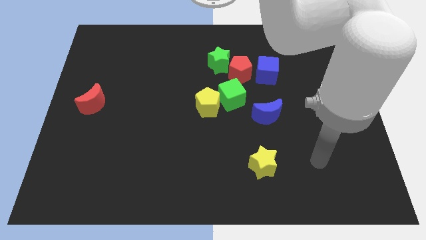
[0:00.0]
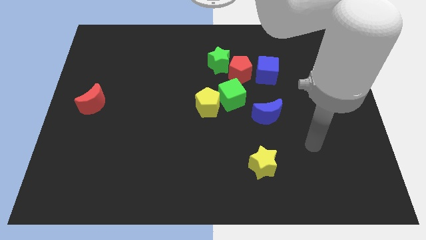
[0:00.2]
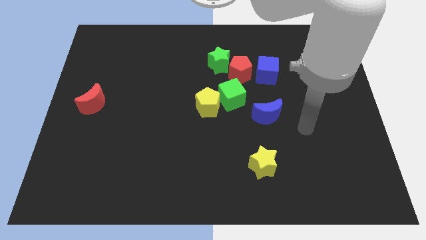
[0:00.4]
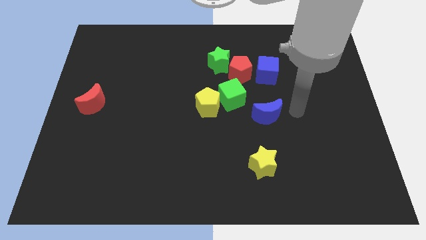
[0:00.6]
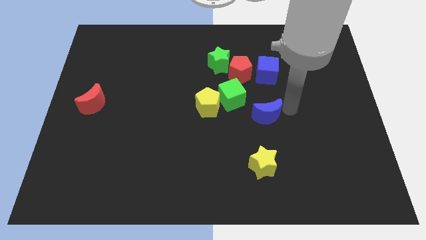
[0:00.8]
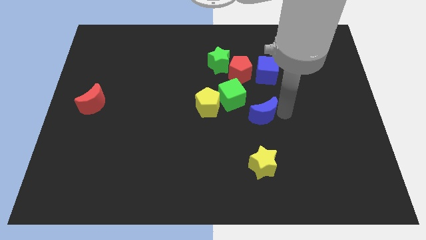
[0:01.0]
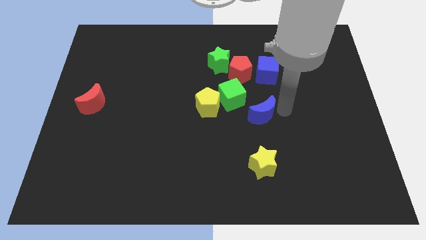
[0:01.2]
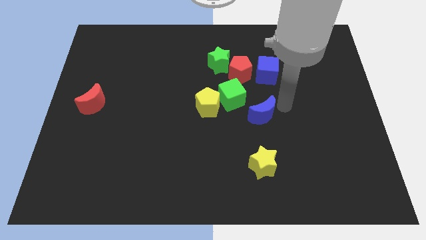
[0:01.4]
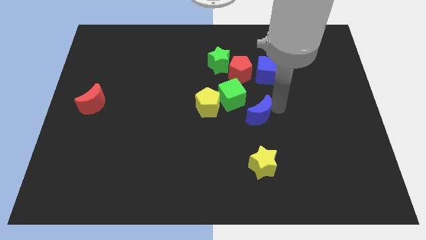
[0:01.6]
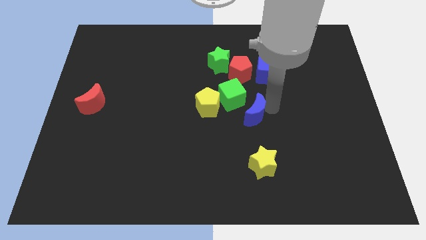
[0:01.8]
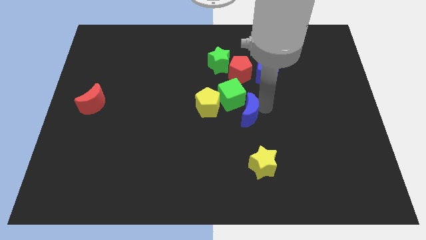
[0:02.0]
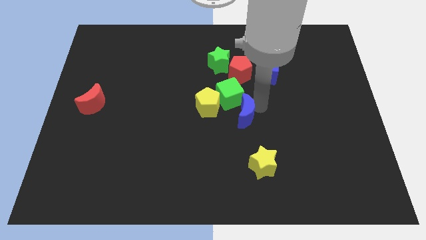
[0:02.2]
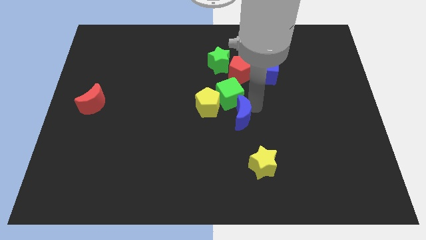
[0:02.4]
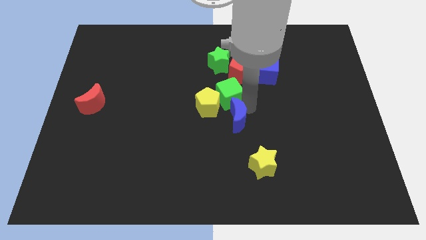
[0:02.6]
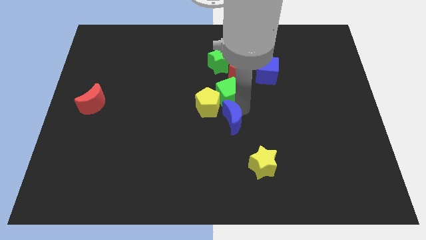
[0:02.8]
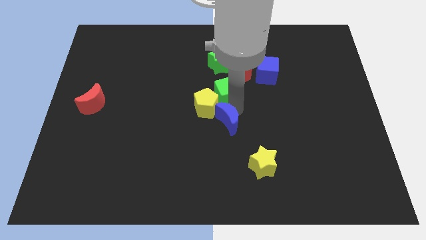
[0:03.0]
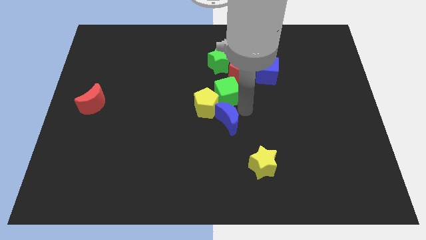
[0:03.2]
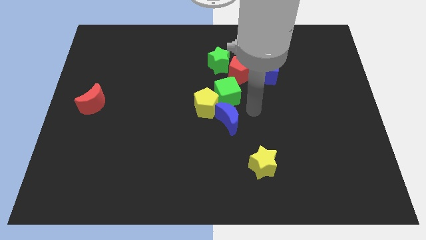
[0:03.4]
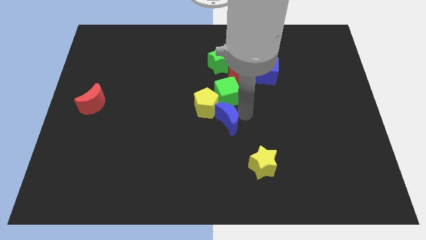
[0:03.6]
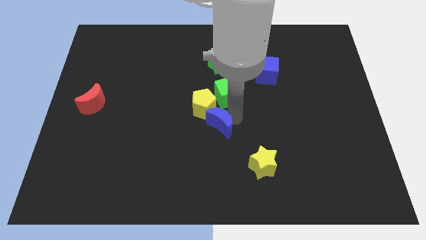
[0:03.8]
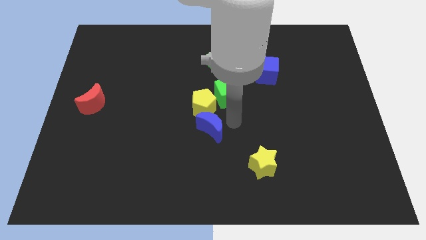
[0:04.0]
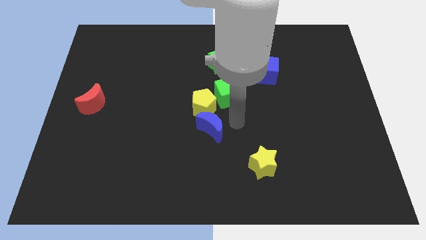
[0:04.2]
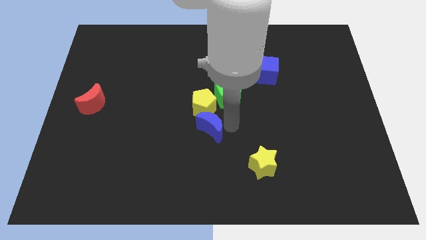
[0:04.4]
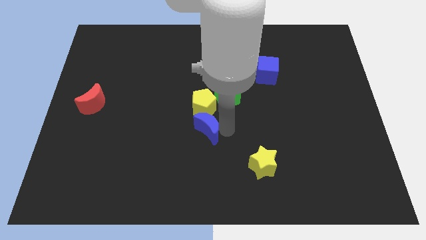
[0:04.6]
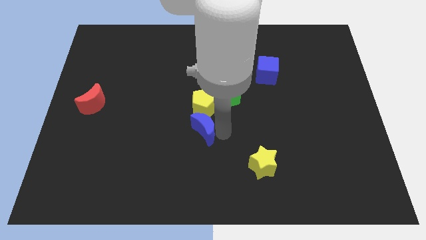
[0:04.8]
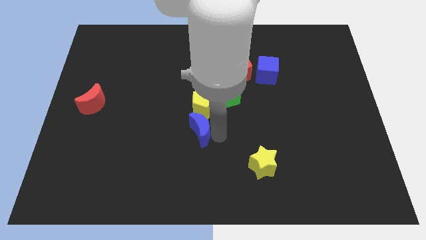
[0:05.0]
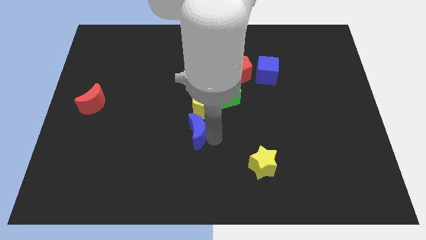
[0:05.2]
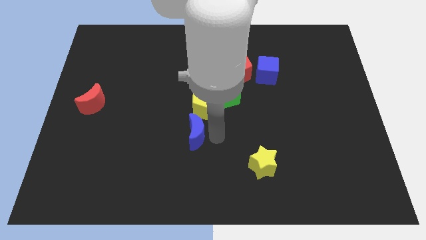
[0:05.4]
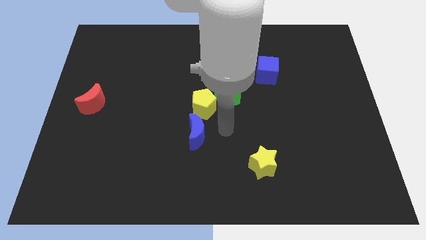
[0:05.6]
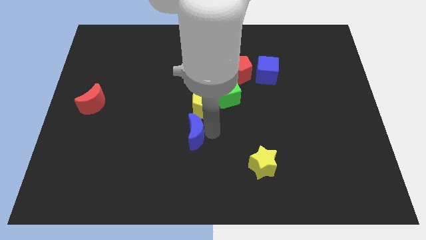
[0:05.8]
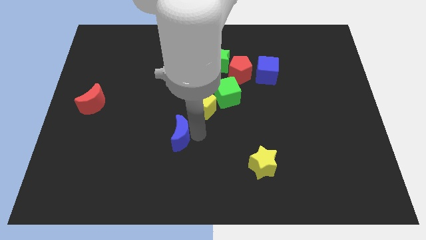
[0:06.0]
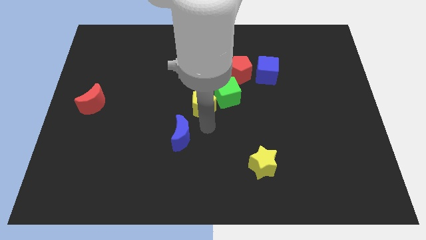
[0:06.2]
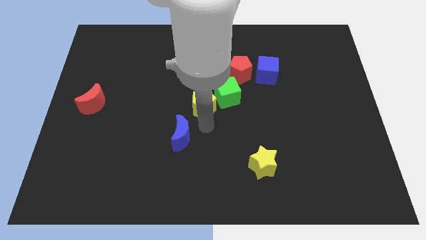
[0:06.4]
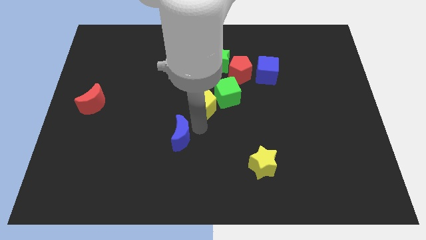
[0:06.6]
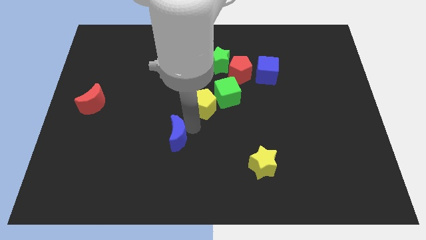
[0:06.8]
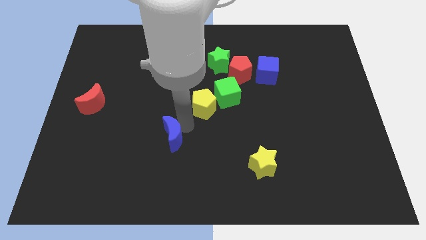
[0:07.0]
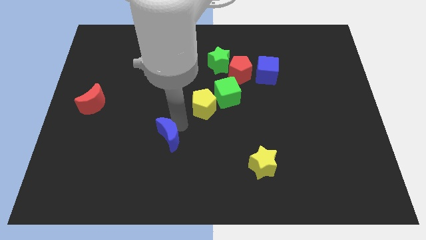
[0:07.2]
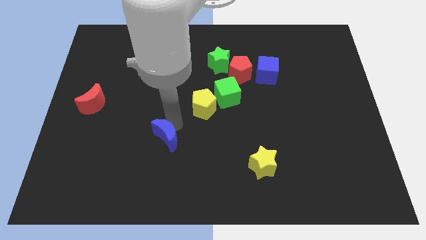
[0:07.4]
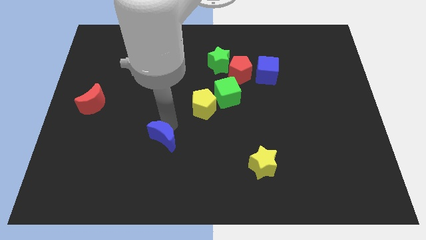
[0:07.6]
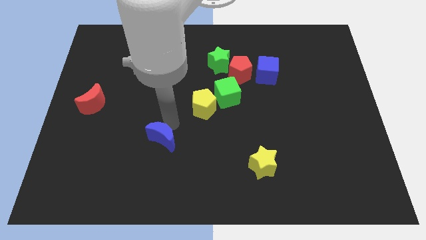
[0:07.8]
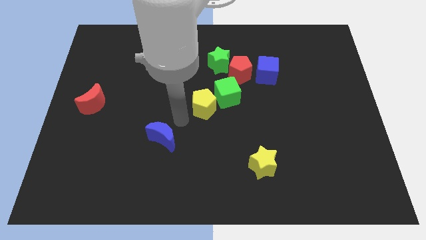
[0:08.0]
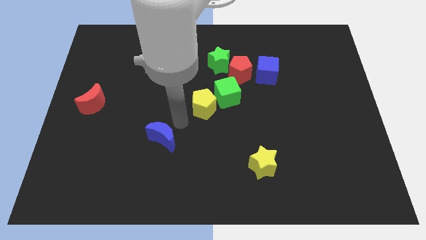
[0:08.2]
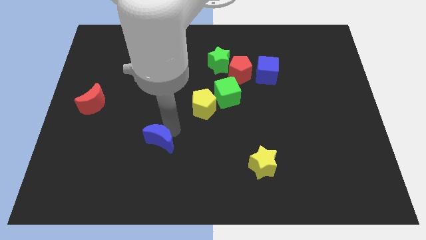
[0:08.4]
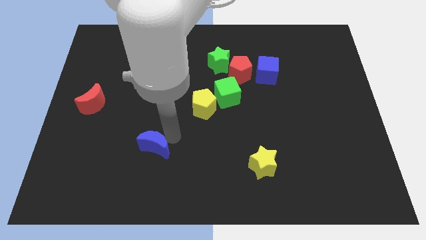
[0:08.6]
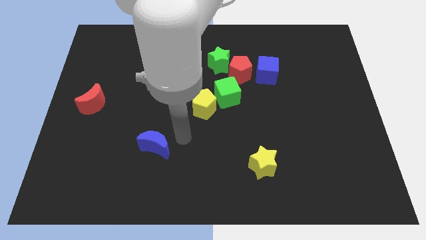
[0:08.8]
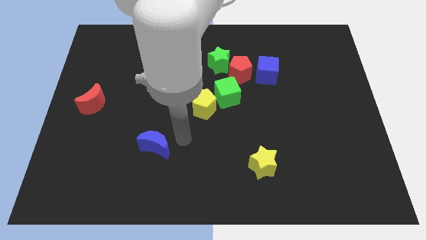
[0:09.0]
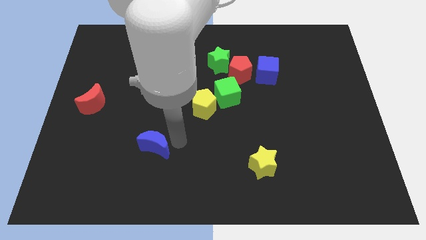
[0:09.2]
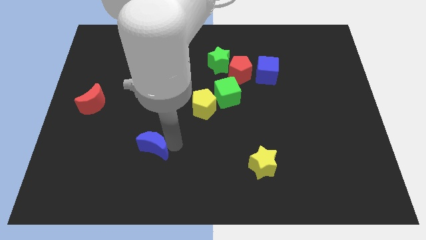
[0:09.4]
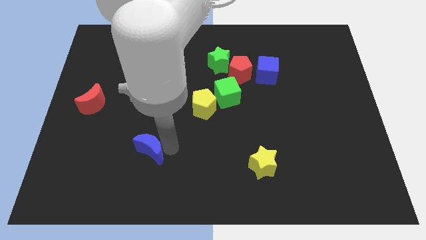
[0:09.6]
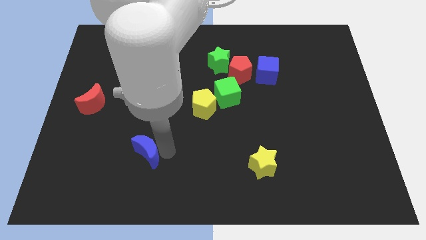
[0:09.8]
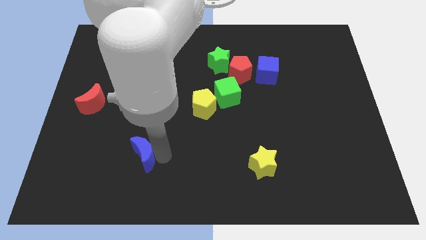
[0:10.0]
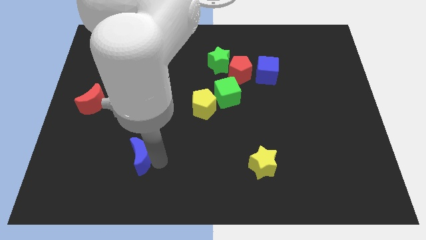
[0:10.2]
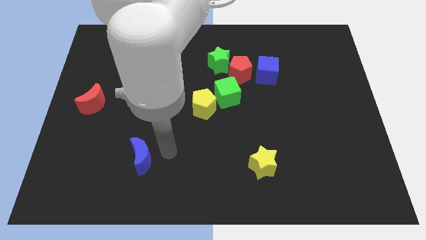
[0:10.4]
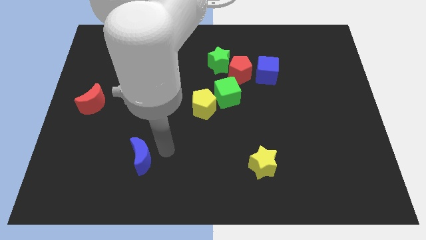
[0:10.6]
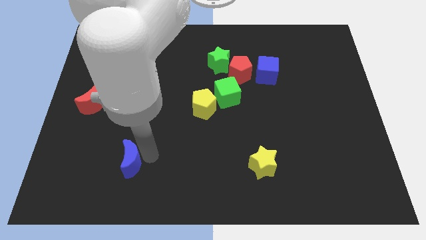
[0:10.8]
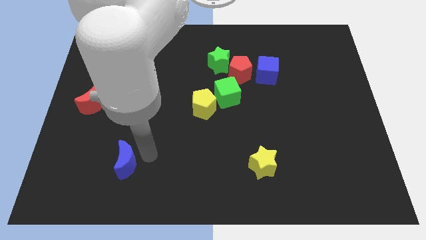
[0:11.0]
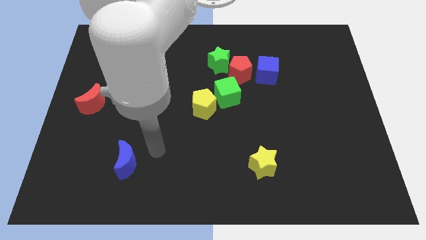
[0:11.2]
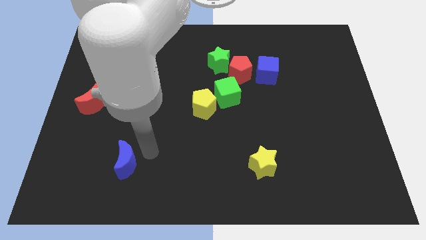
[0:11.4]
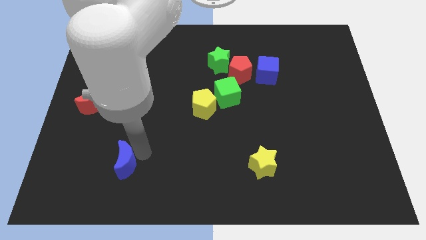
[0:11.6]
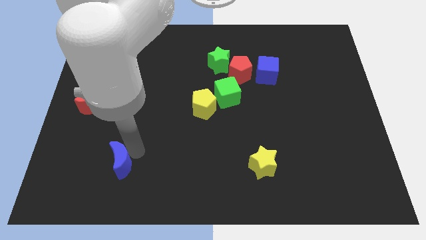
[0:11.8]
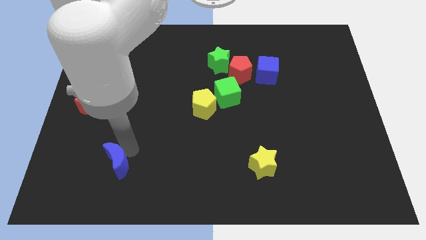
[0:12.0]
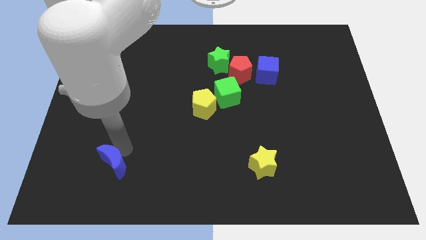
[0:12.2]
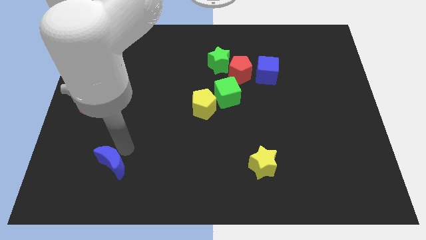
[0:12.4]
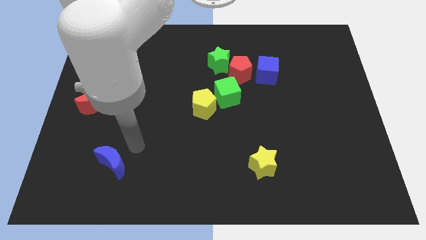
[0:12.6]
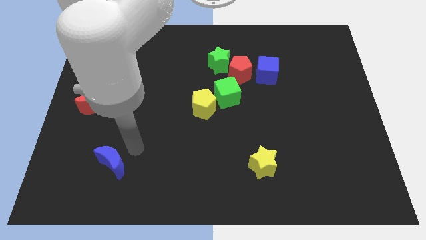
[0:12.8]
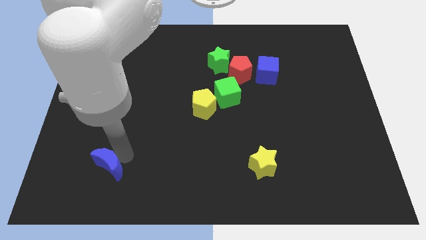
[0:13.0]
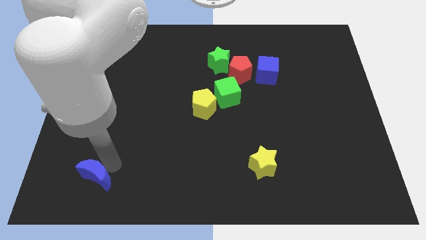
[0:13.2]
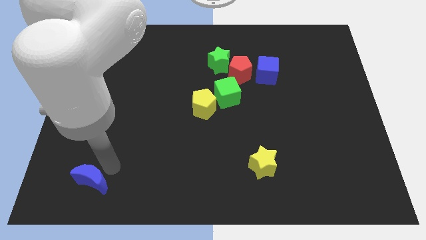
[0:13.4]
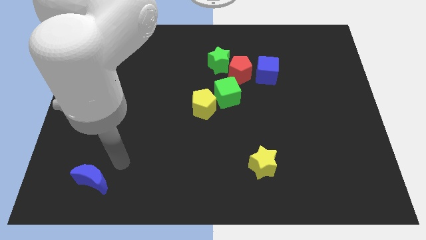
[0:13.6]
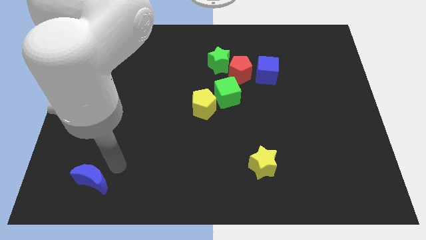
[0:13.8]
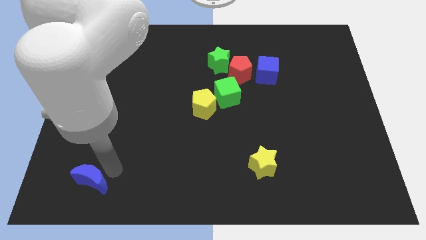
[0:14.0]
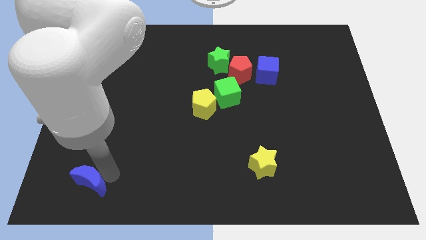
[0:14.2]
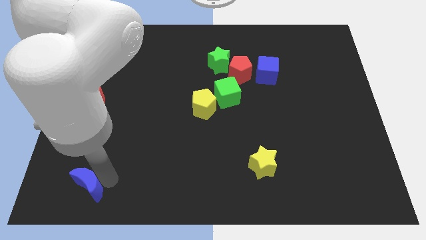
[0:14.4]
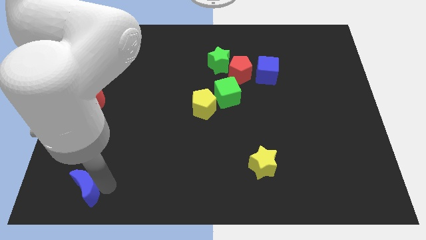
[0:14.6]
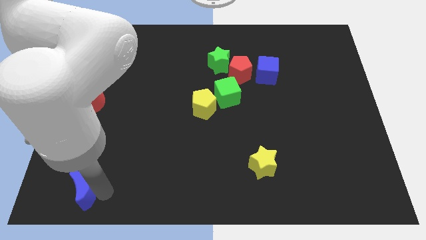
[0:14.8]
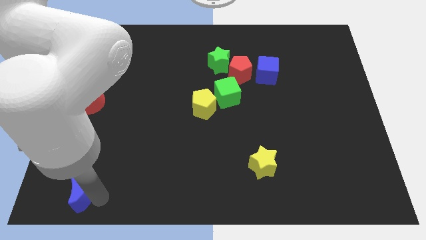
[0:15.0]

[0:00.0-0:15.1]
put the blue moon to the bottom left of the board
